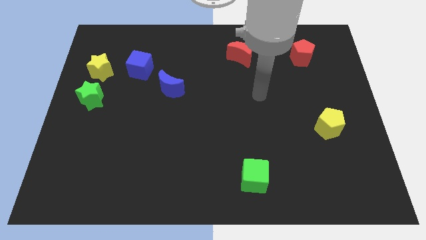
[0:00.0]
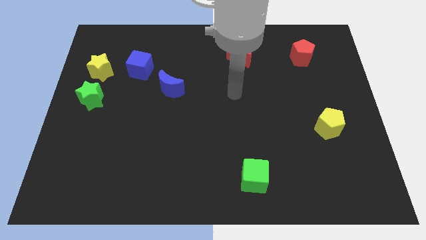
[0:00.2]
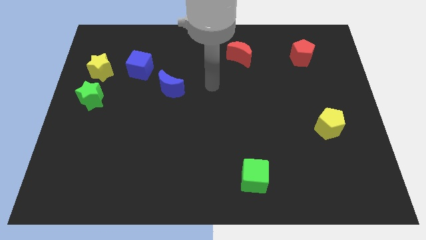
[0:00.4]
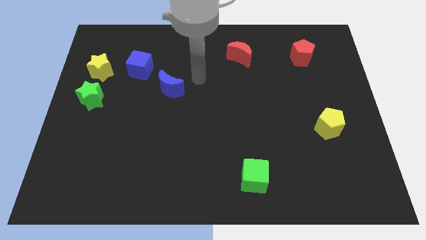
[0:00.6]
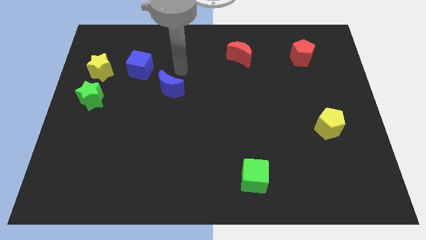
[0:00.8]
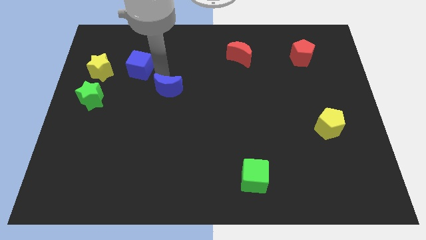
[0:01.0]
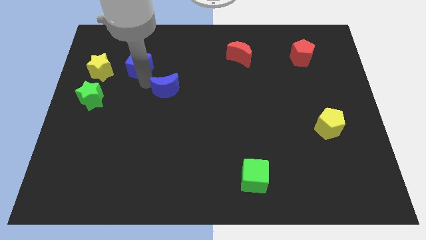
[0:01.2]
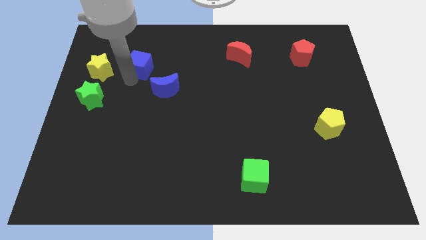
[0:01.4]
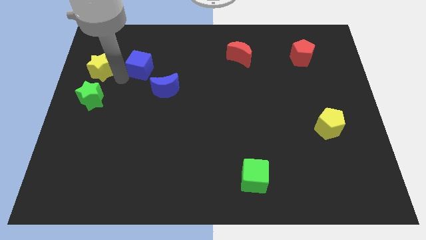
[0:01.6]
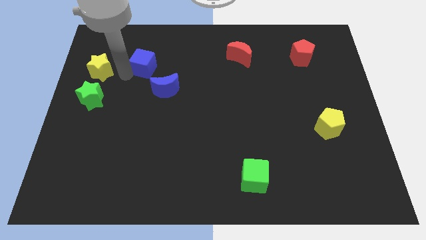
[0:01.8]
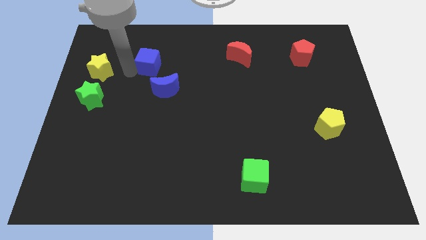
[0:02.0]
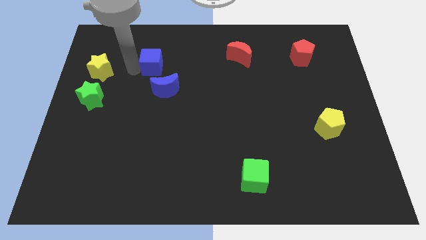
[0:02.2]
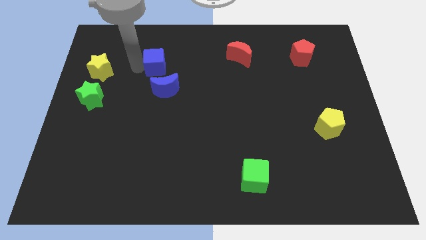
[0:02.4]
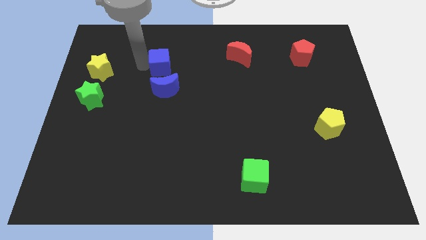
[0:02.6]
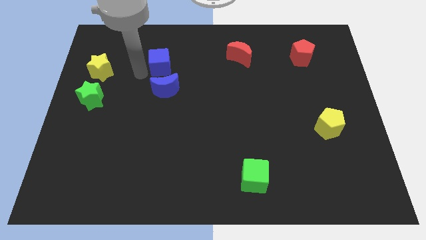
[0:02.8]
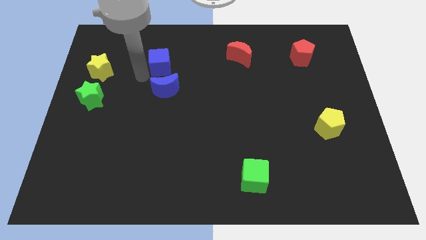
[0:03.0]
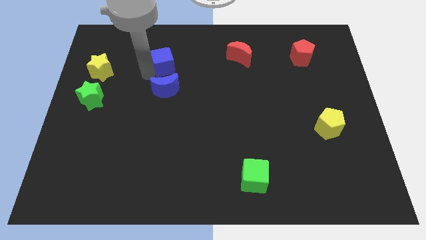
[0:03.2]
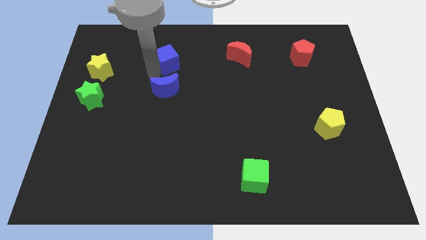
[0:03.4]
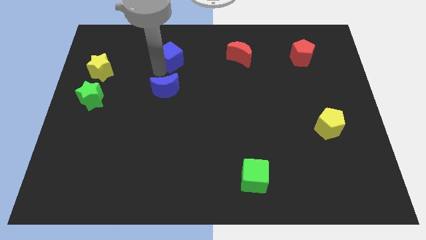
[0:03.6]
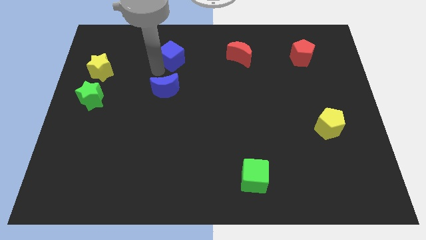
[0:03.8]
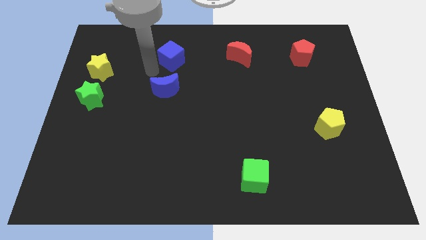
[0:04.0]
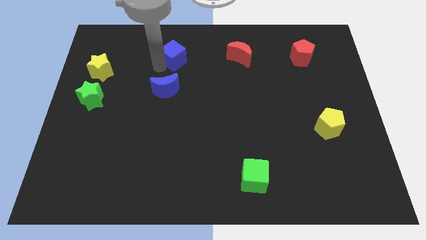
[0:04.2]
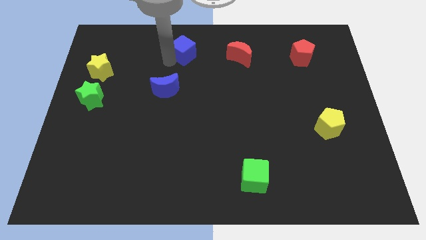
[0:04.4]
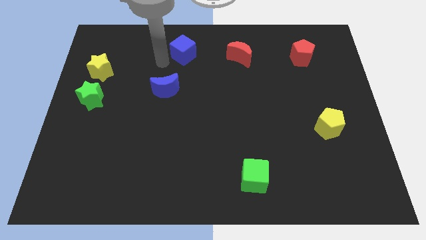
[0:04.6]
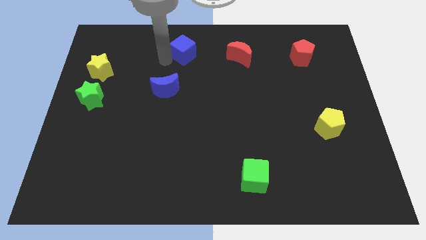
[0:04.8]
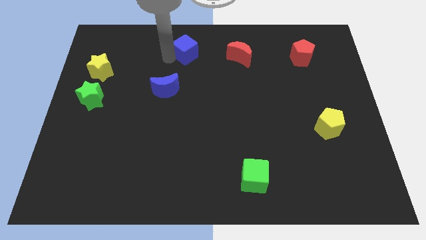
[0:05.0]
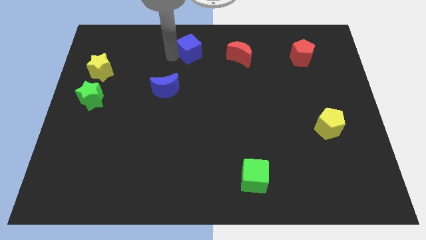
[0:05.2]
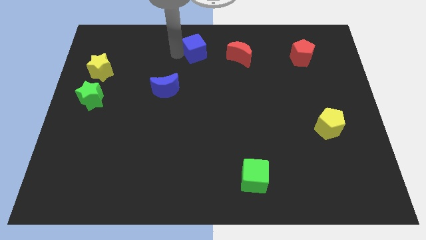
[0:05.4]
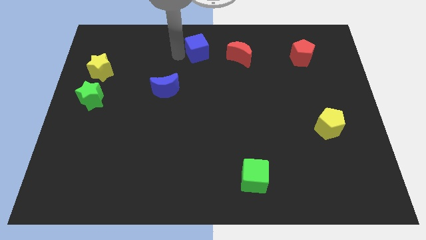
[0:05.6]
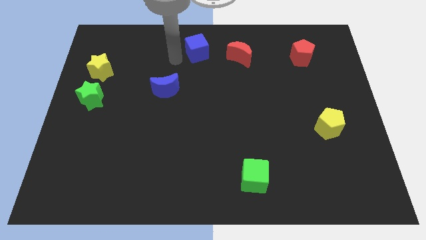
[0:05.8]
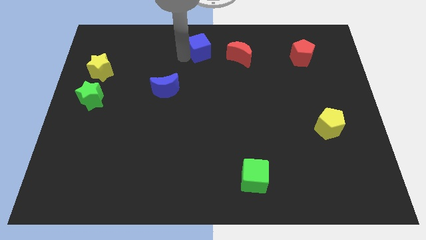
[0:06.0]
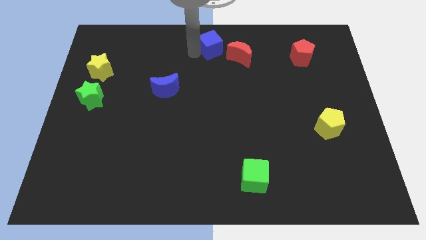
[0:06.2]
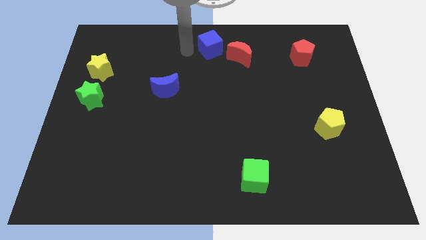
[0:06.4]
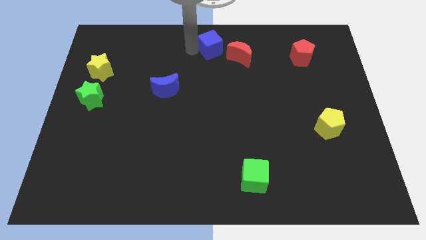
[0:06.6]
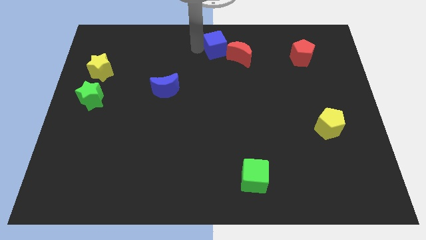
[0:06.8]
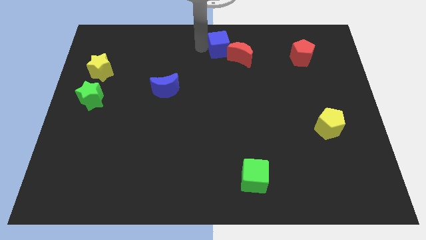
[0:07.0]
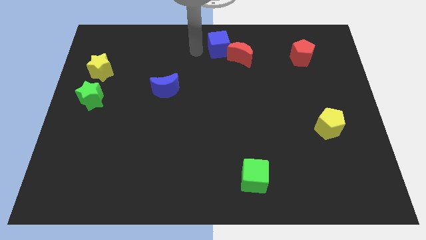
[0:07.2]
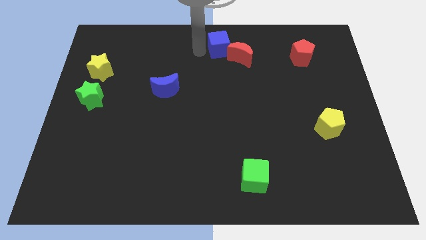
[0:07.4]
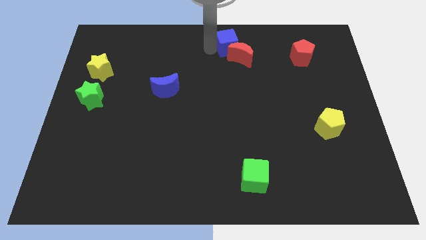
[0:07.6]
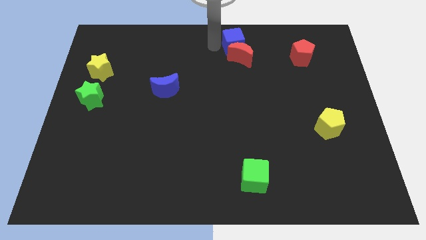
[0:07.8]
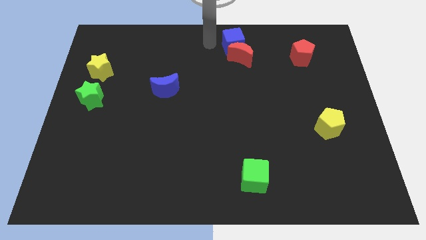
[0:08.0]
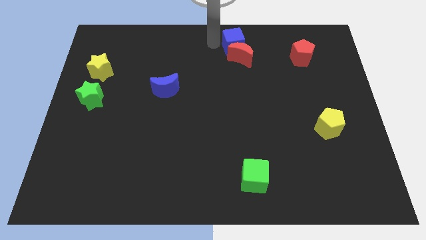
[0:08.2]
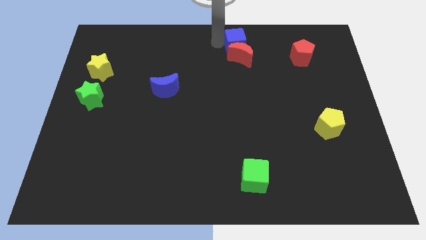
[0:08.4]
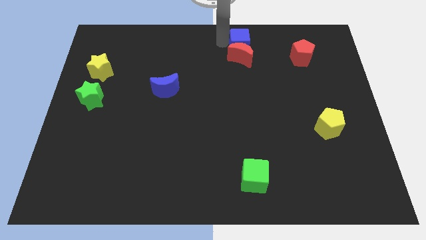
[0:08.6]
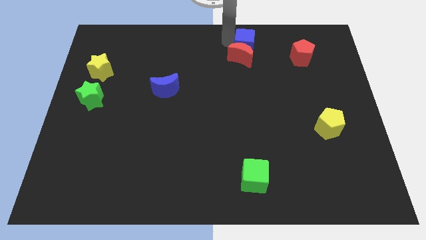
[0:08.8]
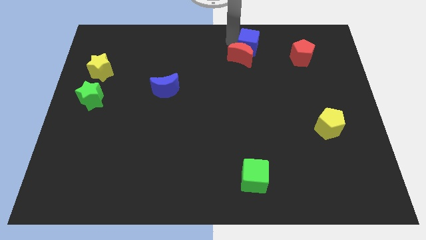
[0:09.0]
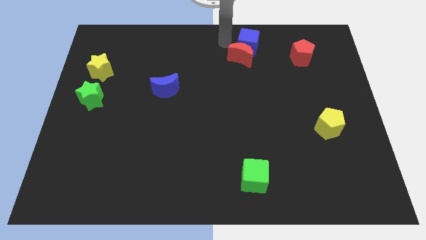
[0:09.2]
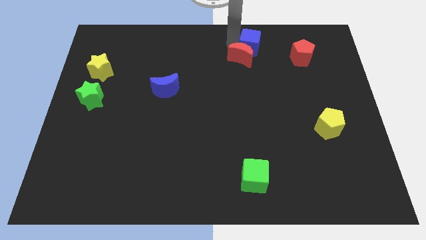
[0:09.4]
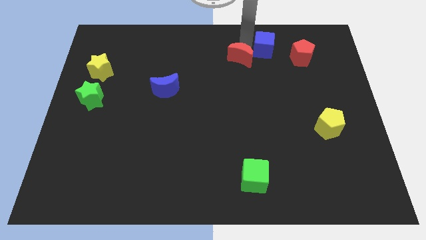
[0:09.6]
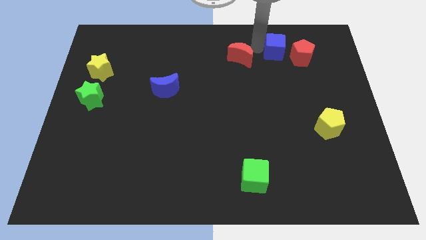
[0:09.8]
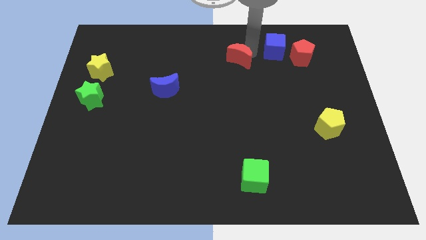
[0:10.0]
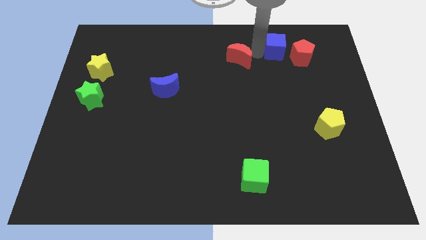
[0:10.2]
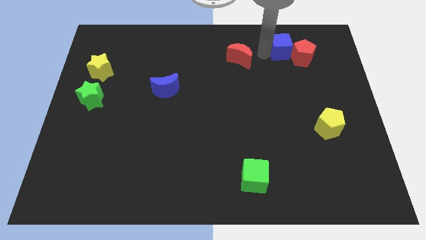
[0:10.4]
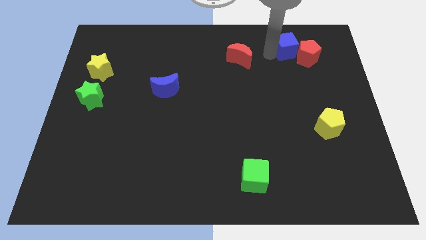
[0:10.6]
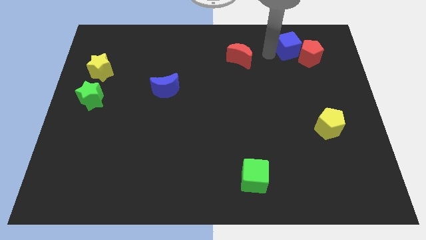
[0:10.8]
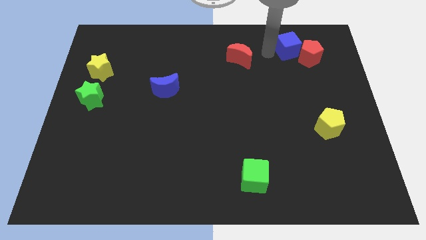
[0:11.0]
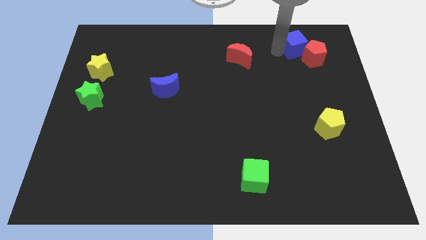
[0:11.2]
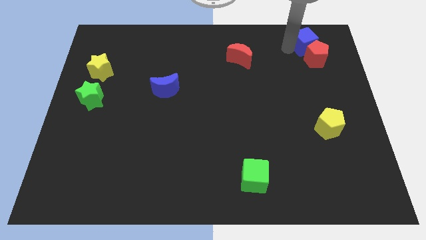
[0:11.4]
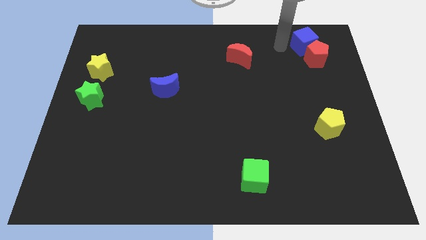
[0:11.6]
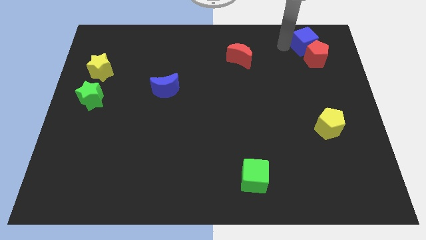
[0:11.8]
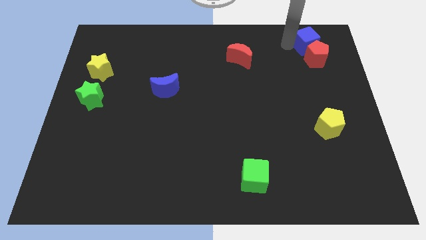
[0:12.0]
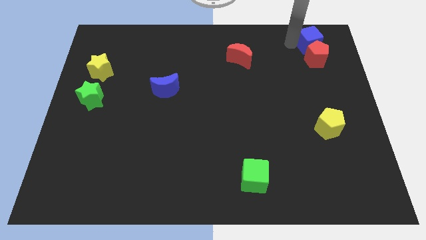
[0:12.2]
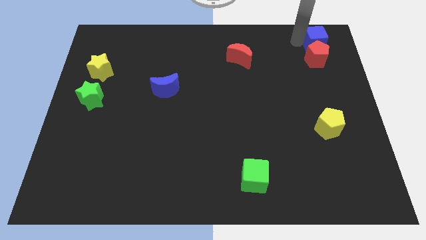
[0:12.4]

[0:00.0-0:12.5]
slide the blue cube to the top right of the board
